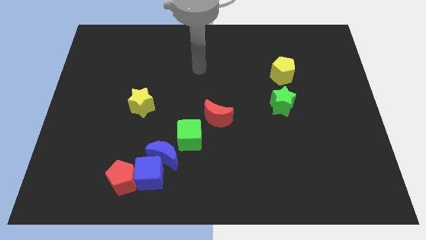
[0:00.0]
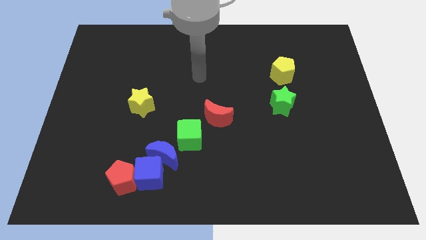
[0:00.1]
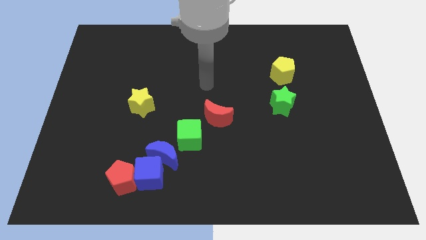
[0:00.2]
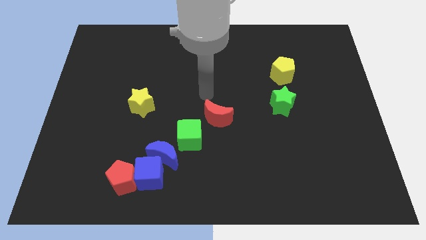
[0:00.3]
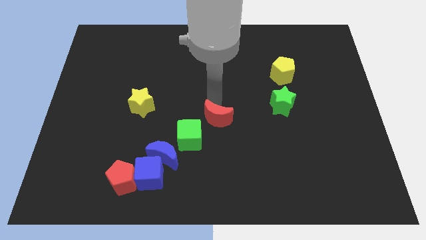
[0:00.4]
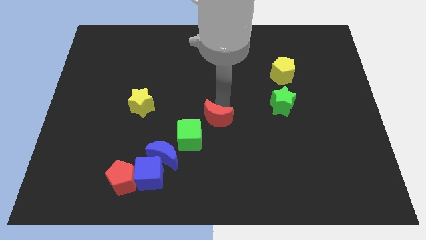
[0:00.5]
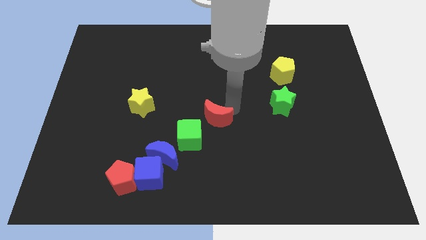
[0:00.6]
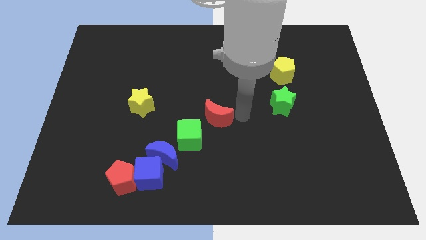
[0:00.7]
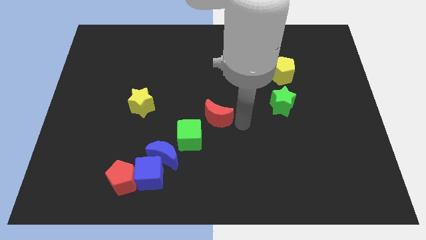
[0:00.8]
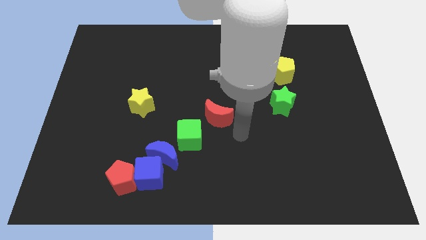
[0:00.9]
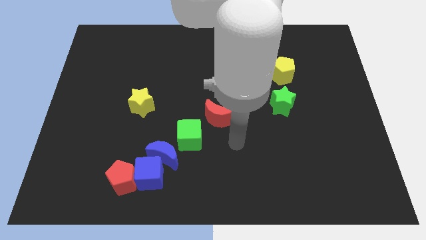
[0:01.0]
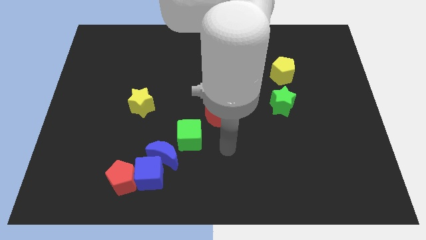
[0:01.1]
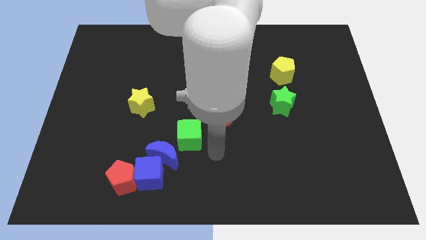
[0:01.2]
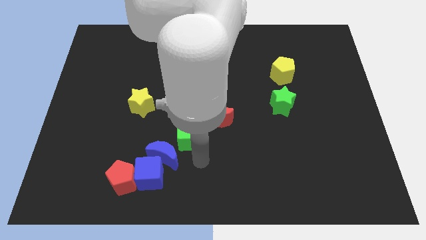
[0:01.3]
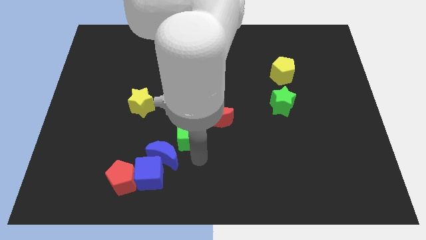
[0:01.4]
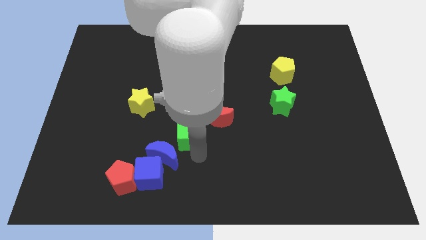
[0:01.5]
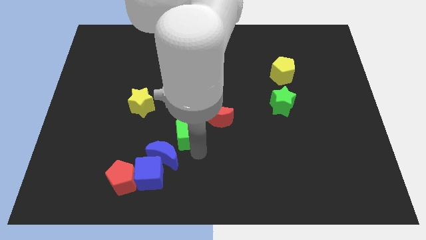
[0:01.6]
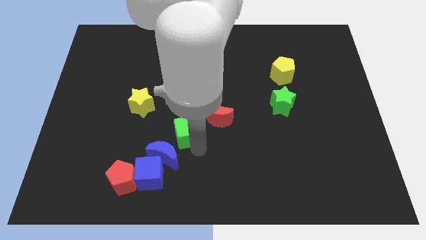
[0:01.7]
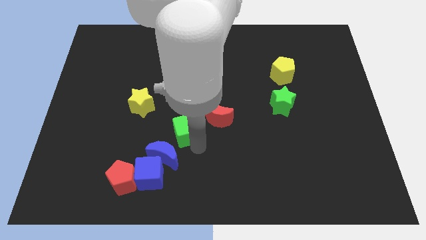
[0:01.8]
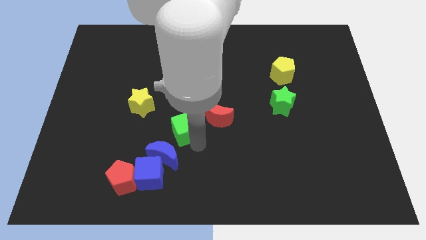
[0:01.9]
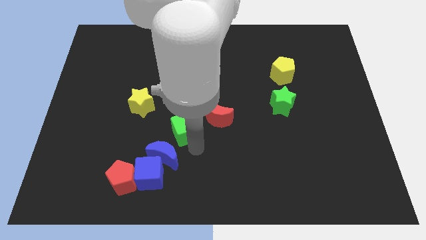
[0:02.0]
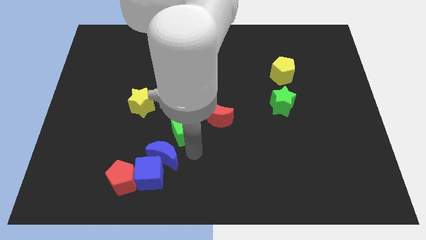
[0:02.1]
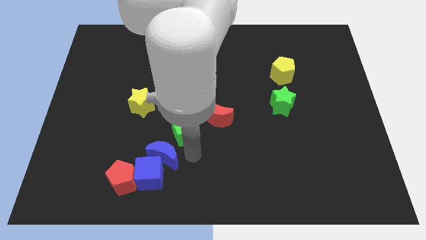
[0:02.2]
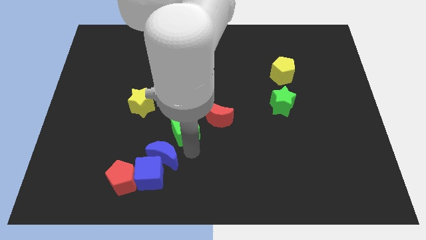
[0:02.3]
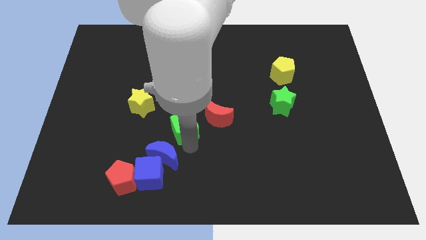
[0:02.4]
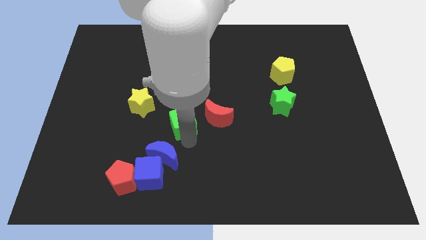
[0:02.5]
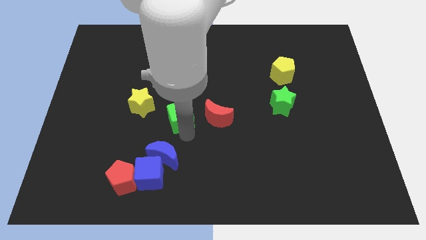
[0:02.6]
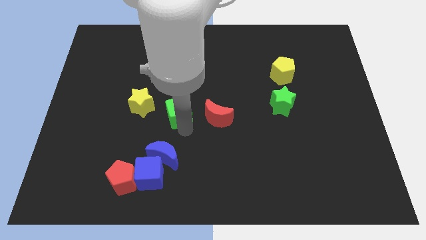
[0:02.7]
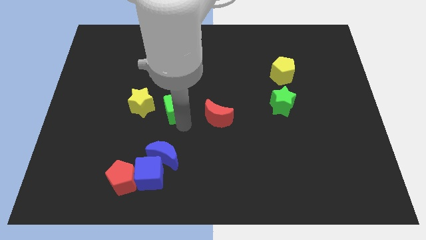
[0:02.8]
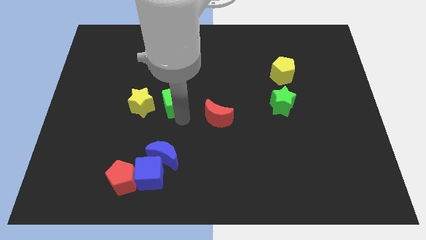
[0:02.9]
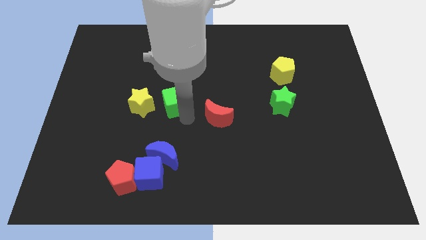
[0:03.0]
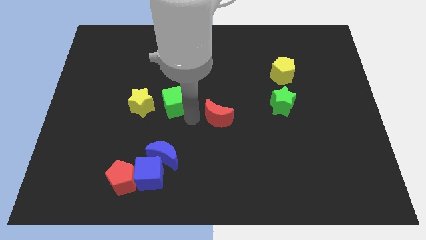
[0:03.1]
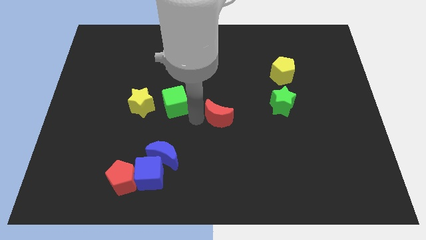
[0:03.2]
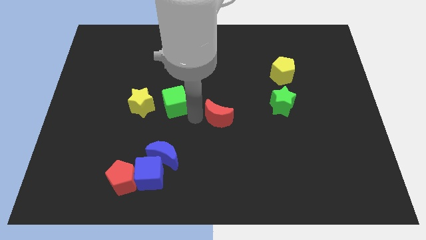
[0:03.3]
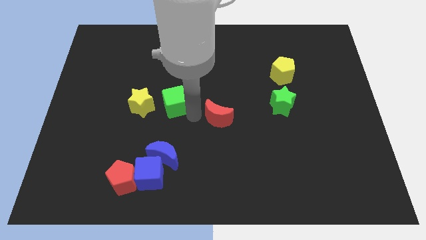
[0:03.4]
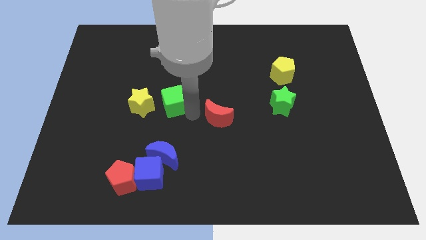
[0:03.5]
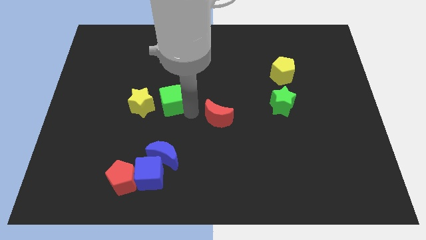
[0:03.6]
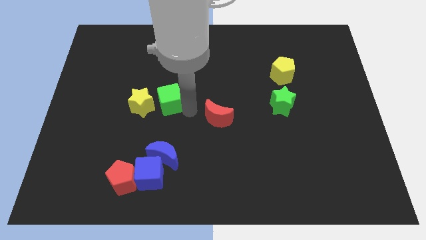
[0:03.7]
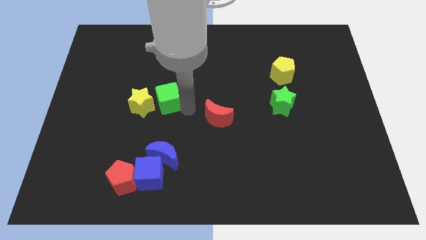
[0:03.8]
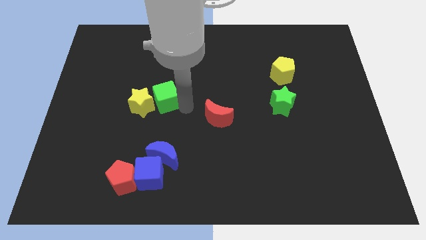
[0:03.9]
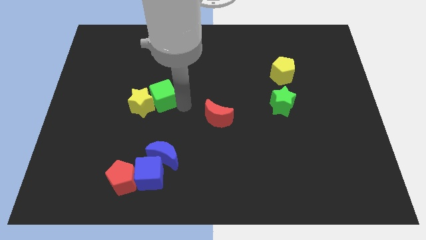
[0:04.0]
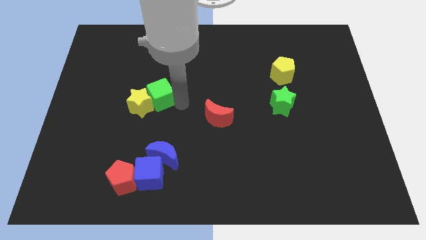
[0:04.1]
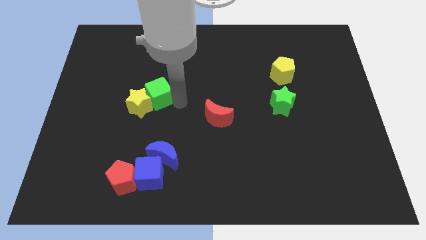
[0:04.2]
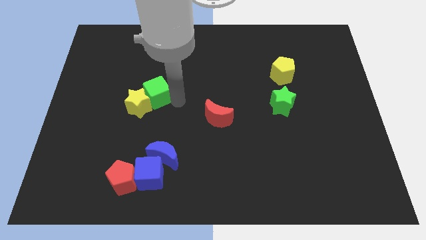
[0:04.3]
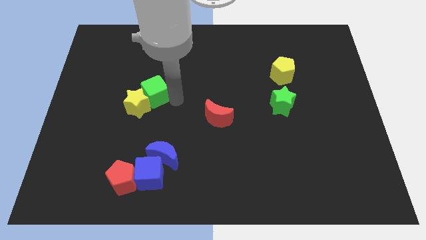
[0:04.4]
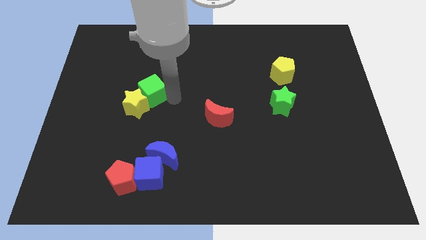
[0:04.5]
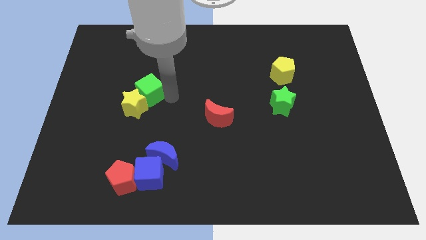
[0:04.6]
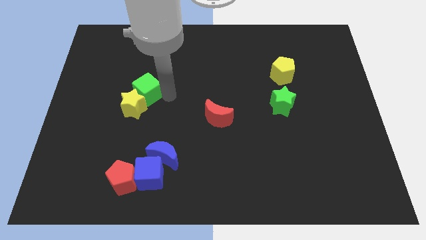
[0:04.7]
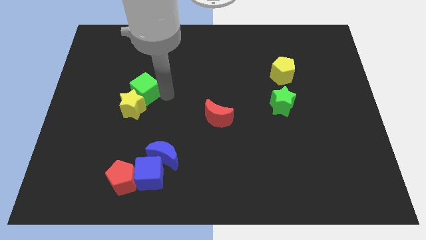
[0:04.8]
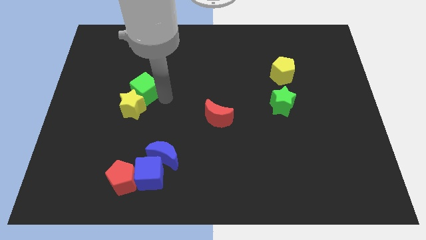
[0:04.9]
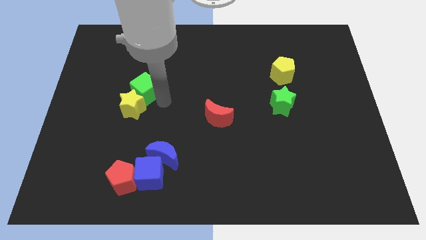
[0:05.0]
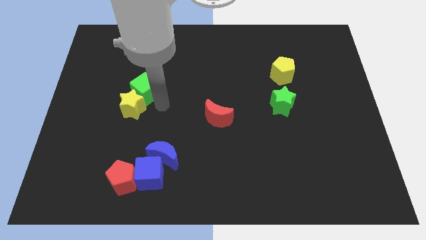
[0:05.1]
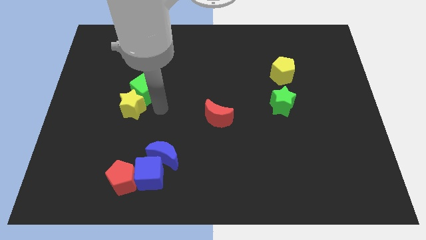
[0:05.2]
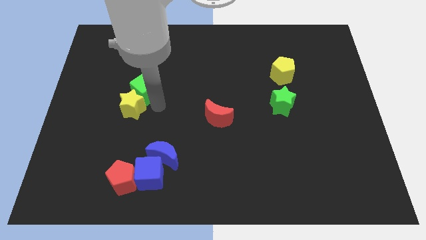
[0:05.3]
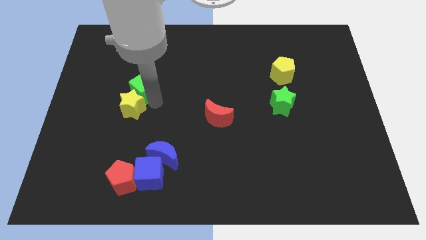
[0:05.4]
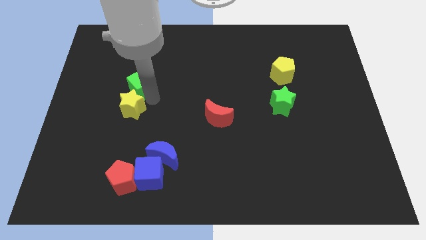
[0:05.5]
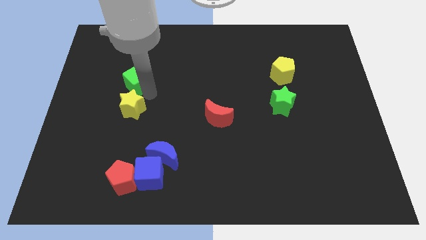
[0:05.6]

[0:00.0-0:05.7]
move the green cube up and left

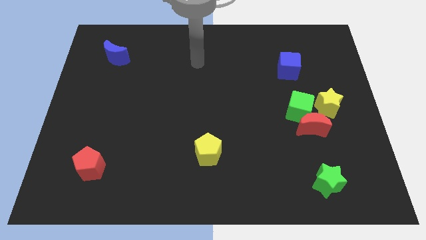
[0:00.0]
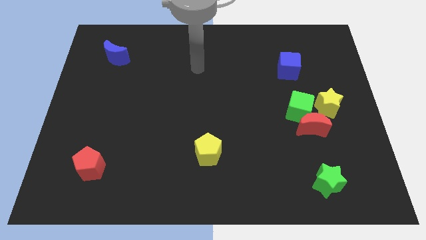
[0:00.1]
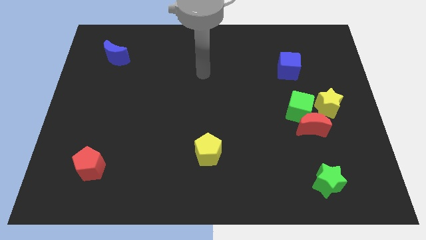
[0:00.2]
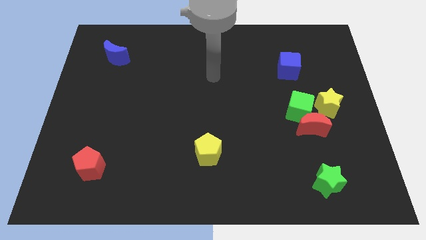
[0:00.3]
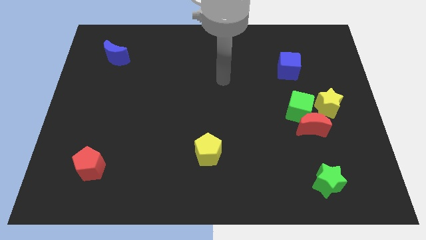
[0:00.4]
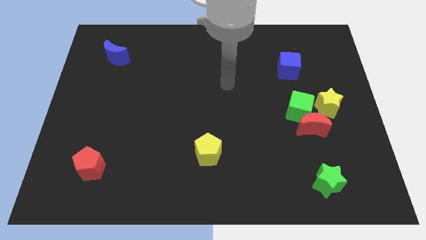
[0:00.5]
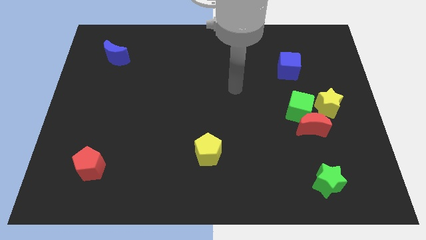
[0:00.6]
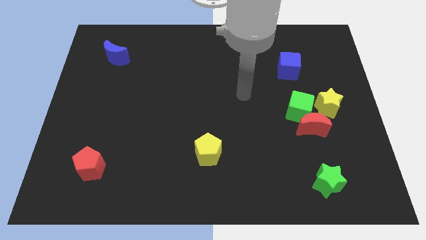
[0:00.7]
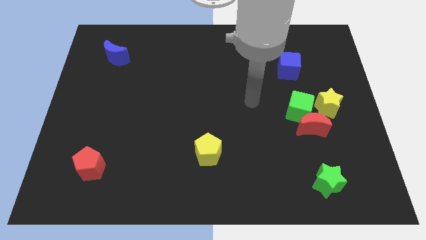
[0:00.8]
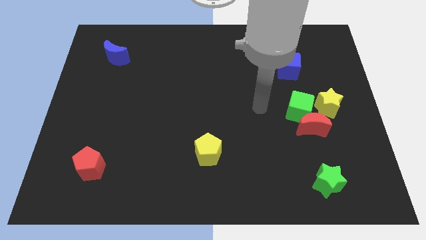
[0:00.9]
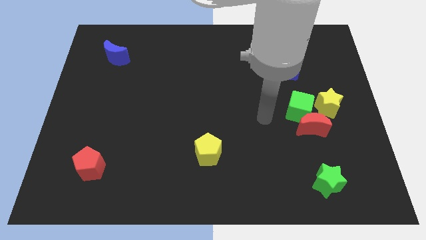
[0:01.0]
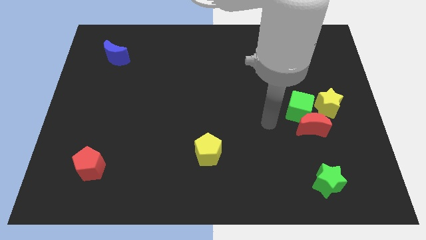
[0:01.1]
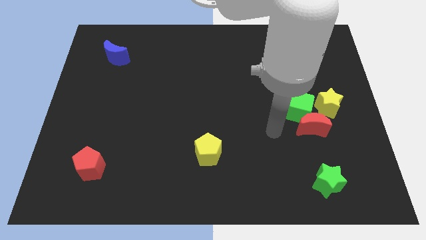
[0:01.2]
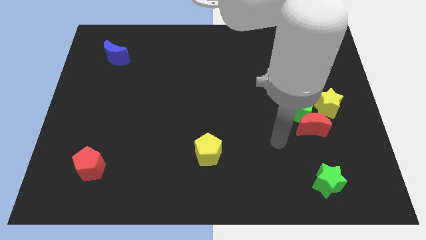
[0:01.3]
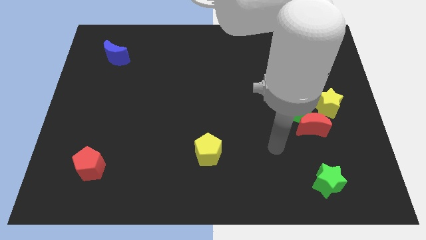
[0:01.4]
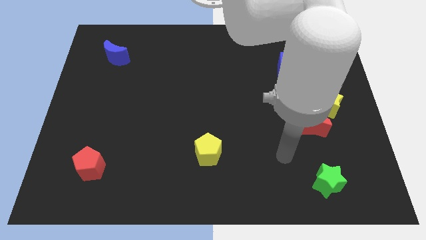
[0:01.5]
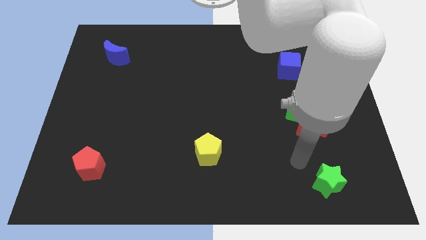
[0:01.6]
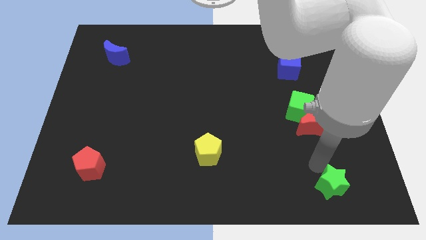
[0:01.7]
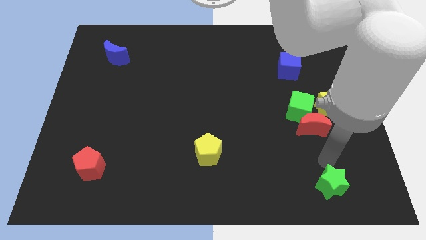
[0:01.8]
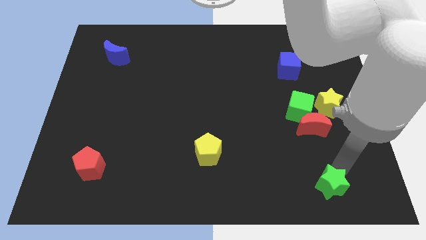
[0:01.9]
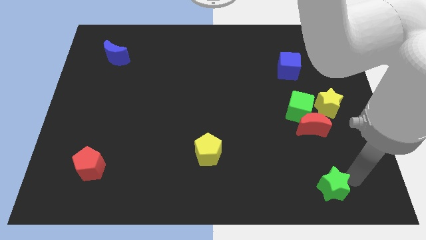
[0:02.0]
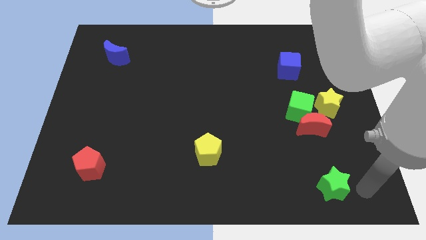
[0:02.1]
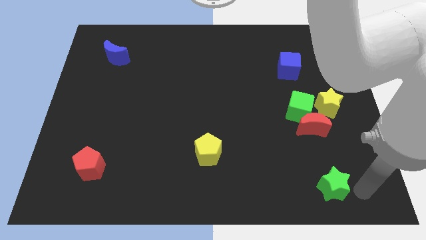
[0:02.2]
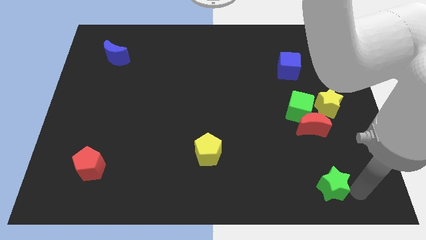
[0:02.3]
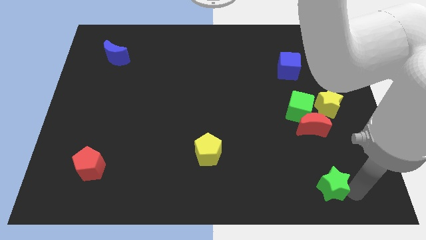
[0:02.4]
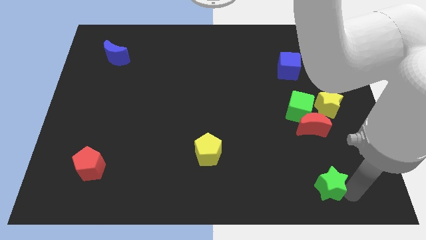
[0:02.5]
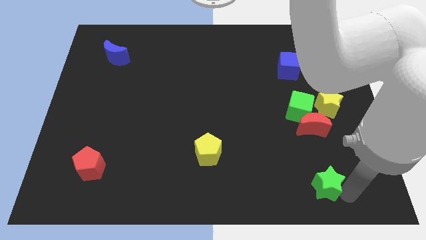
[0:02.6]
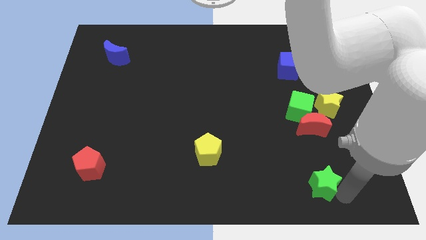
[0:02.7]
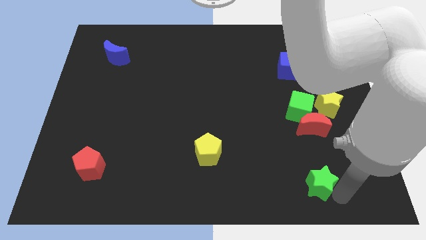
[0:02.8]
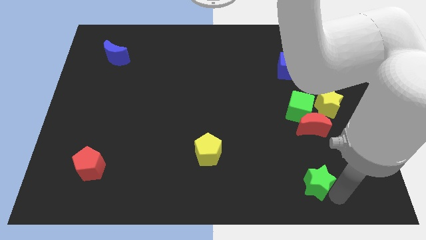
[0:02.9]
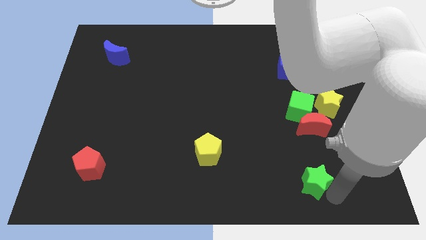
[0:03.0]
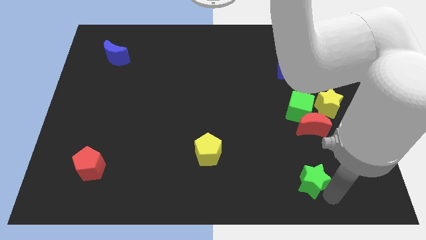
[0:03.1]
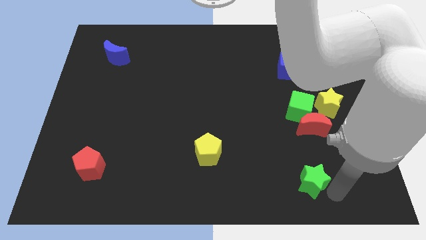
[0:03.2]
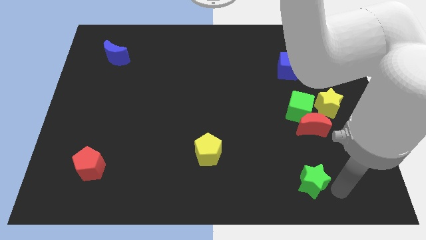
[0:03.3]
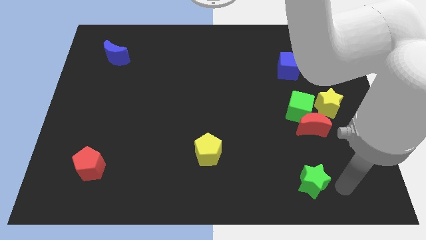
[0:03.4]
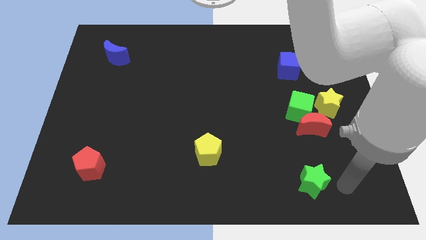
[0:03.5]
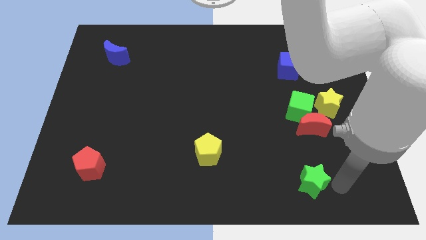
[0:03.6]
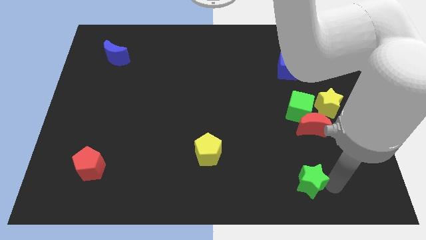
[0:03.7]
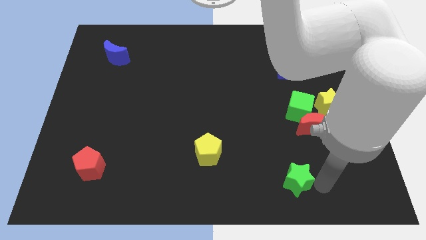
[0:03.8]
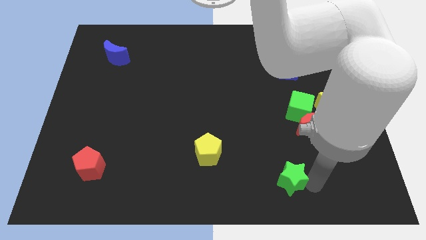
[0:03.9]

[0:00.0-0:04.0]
push the green star a bit to the left
